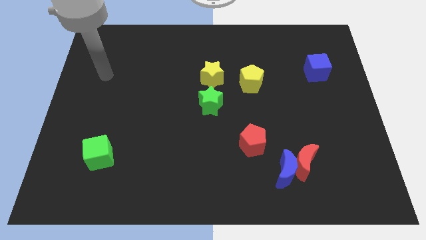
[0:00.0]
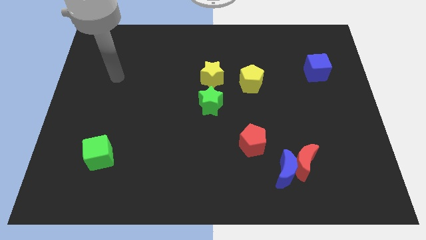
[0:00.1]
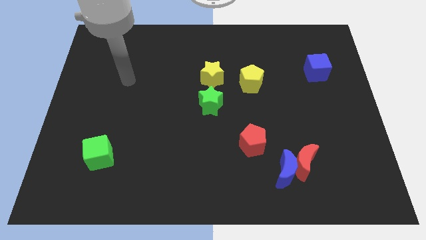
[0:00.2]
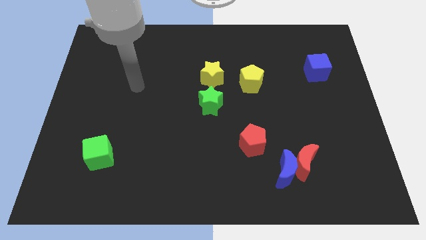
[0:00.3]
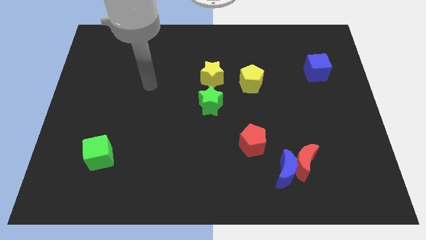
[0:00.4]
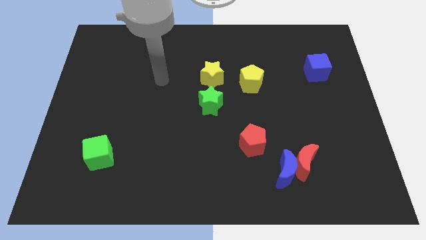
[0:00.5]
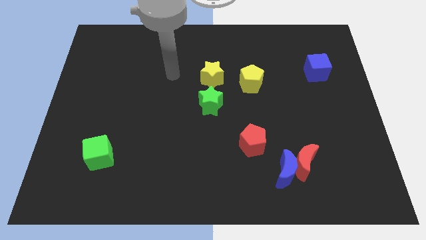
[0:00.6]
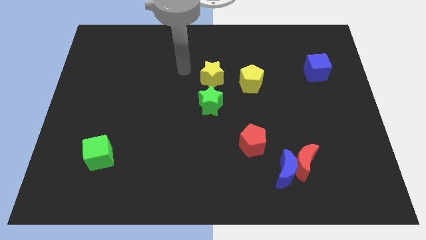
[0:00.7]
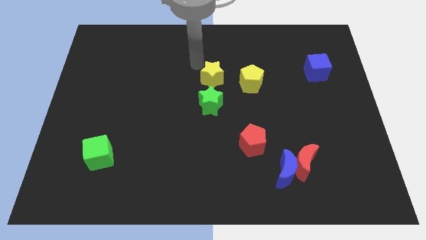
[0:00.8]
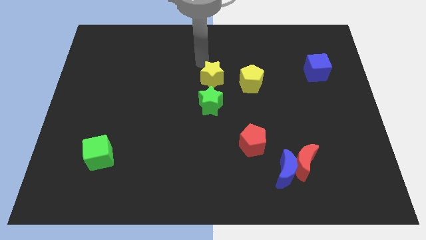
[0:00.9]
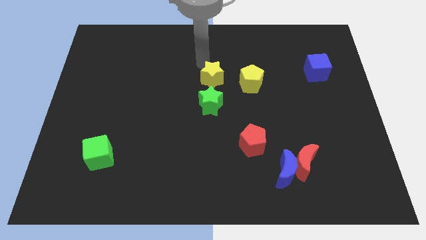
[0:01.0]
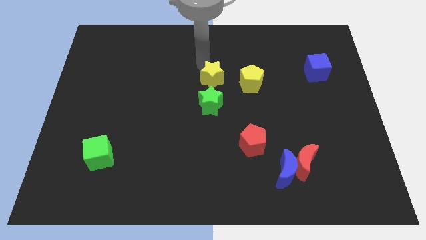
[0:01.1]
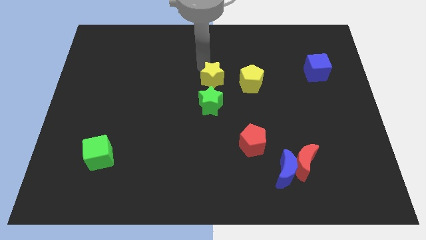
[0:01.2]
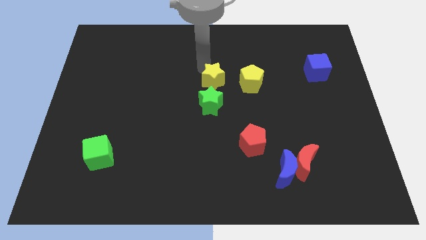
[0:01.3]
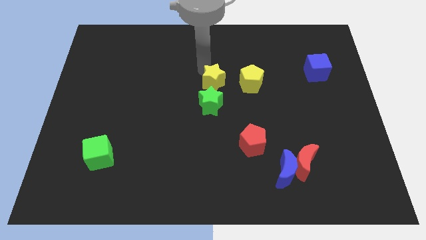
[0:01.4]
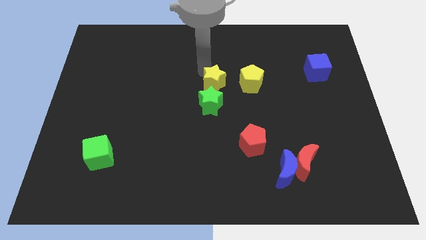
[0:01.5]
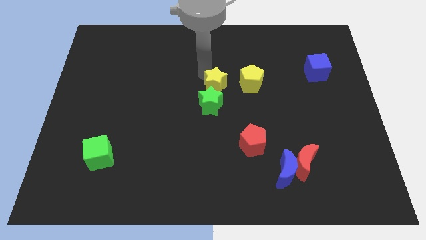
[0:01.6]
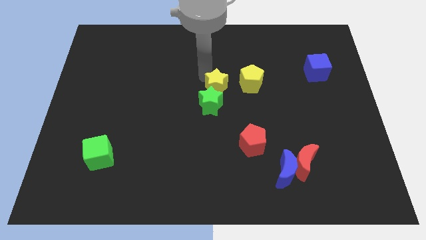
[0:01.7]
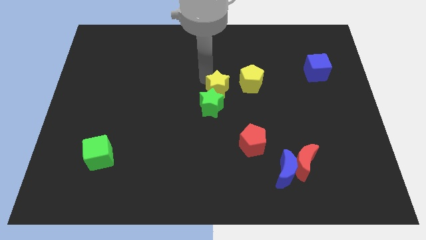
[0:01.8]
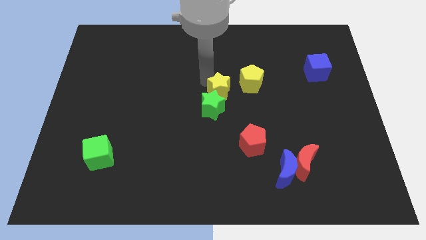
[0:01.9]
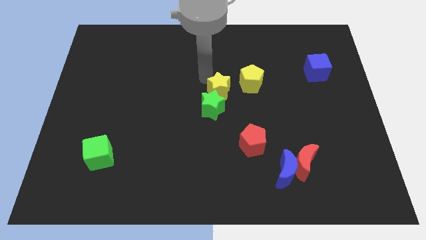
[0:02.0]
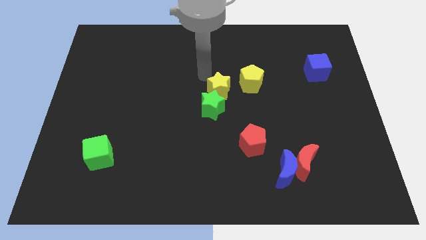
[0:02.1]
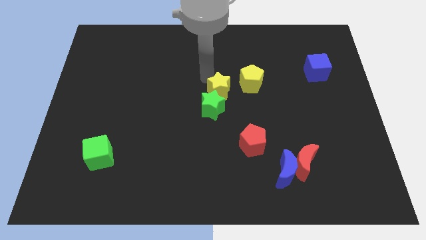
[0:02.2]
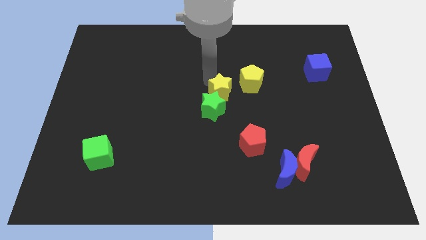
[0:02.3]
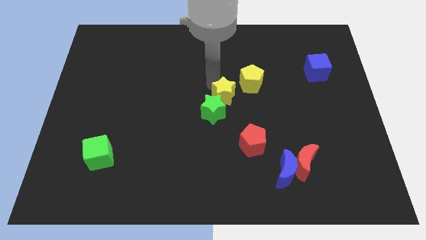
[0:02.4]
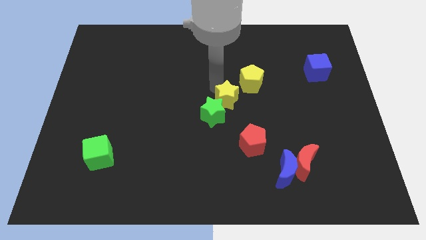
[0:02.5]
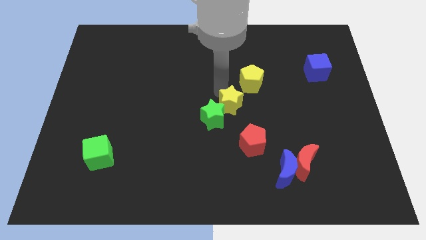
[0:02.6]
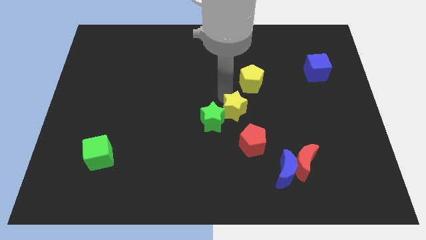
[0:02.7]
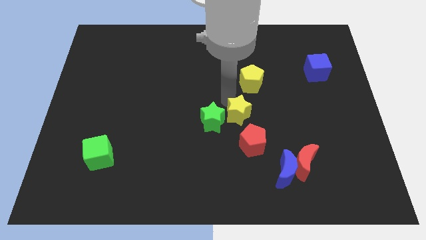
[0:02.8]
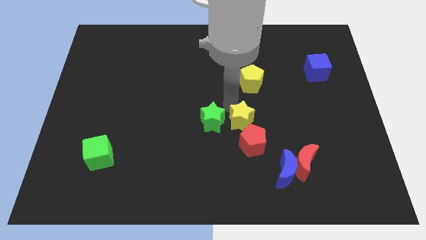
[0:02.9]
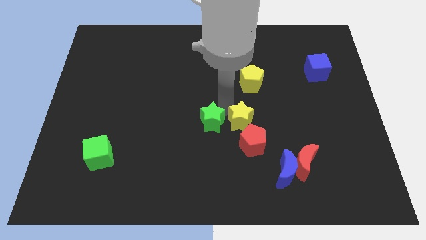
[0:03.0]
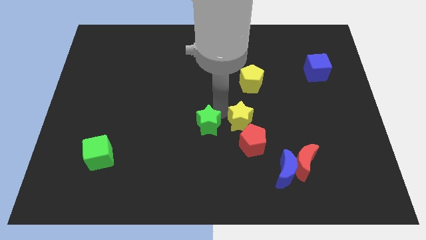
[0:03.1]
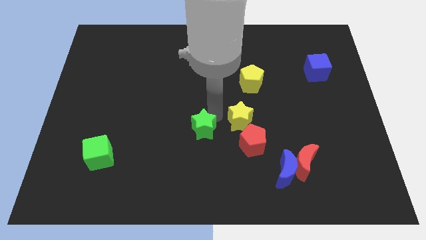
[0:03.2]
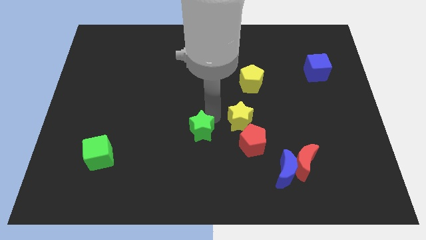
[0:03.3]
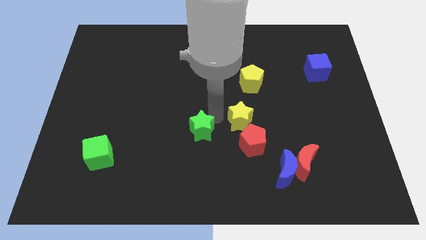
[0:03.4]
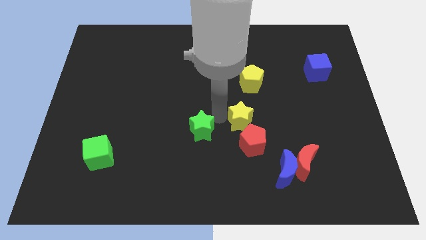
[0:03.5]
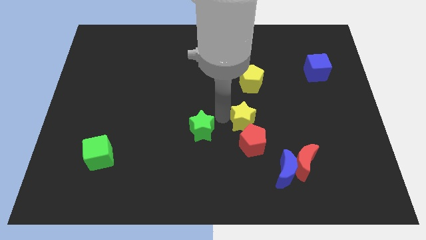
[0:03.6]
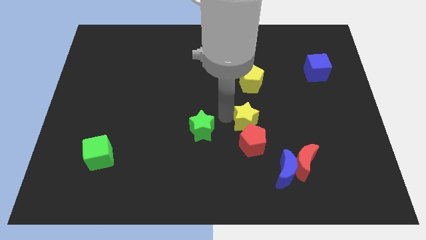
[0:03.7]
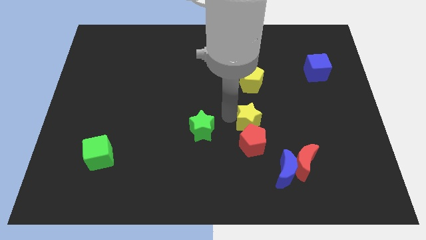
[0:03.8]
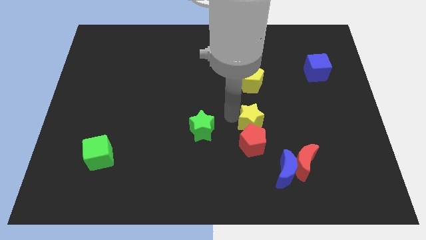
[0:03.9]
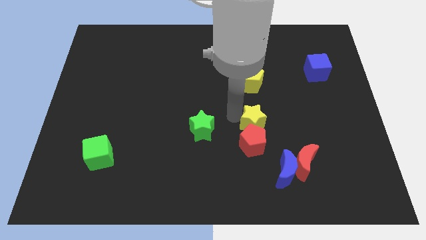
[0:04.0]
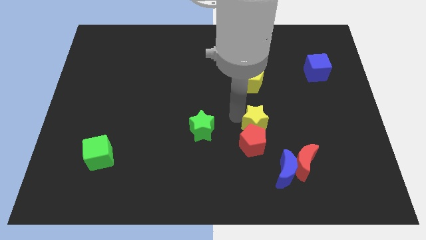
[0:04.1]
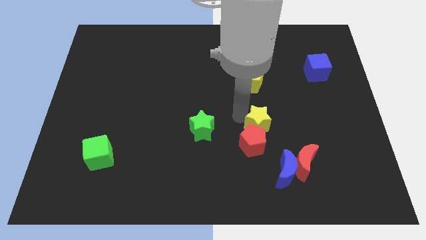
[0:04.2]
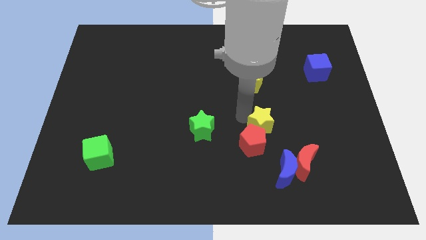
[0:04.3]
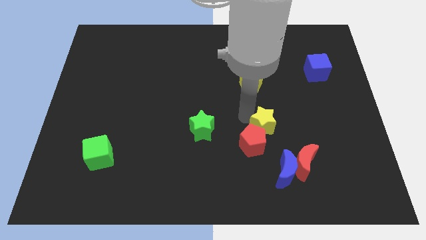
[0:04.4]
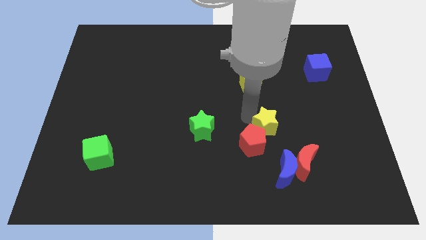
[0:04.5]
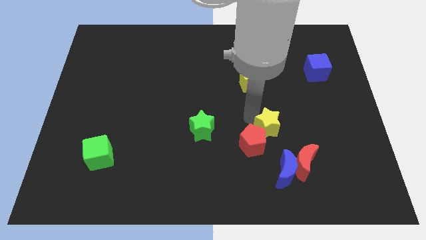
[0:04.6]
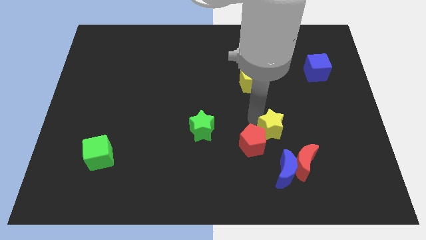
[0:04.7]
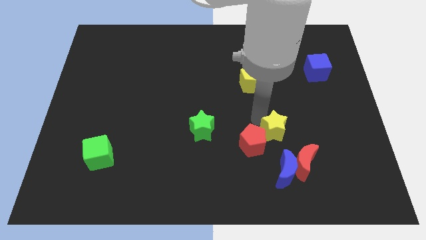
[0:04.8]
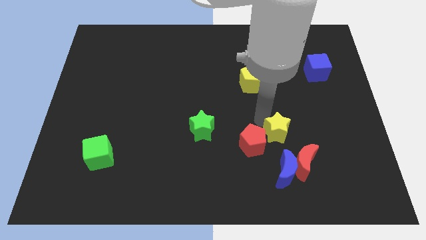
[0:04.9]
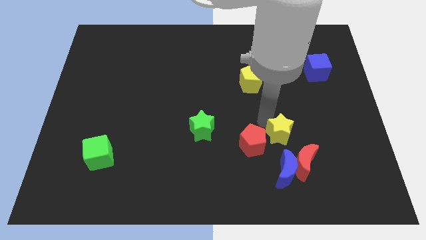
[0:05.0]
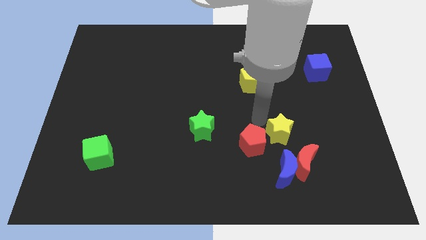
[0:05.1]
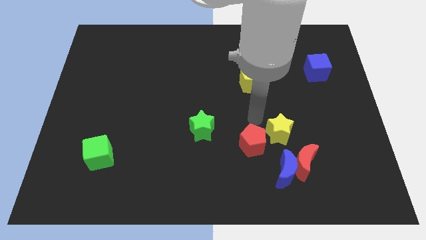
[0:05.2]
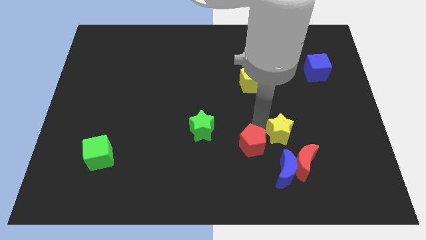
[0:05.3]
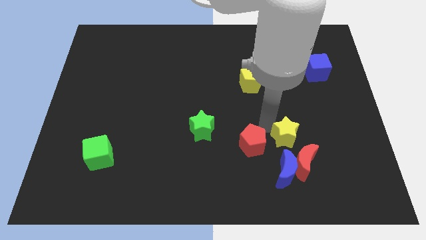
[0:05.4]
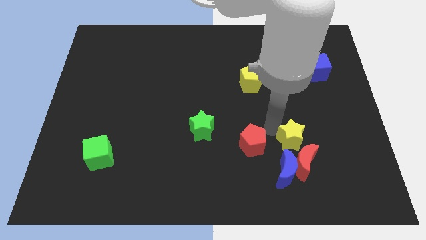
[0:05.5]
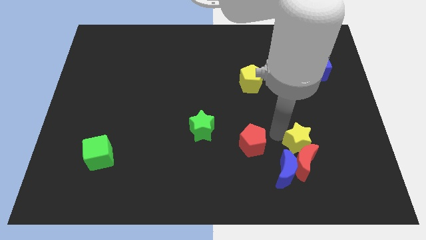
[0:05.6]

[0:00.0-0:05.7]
slide the yellow star diagonally up and to the right of the red moon

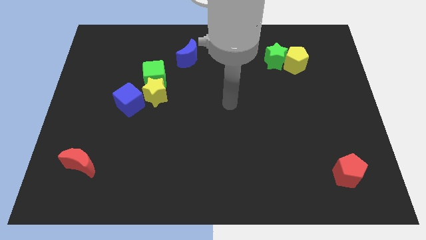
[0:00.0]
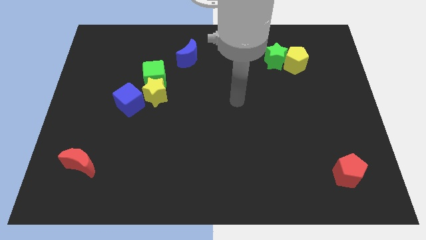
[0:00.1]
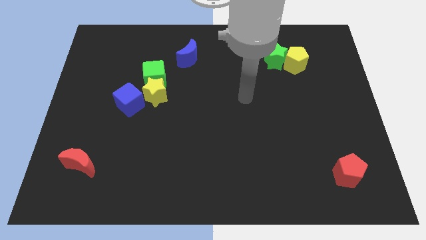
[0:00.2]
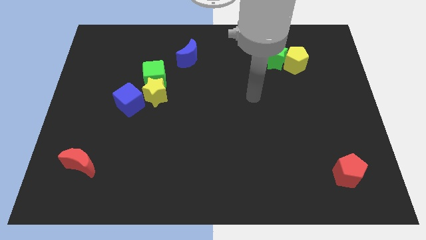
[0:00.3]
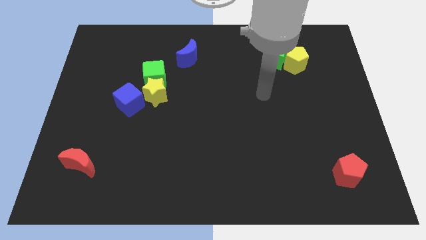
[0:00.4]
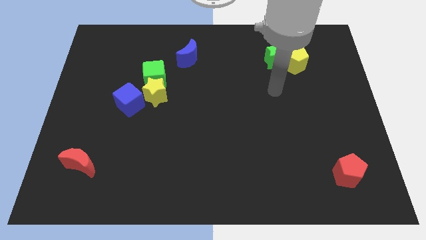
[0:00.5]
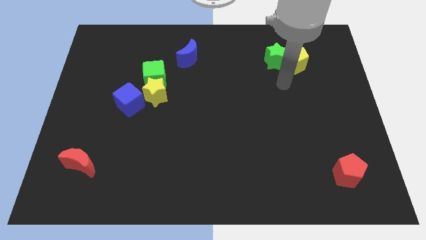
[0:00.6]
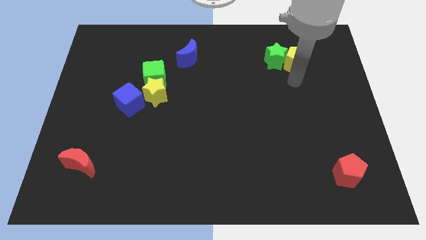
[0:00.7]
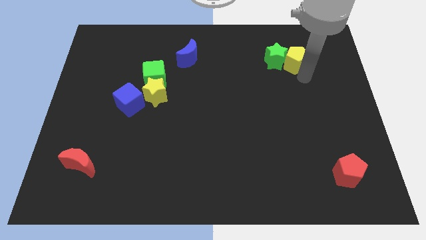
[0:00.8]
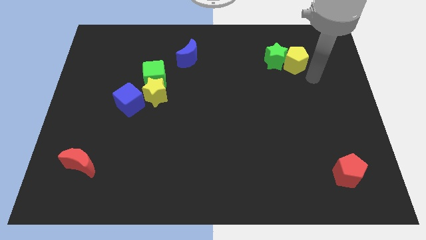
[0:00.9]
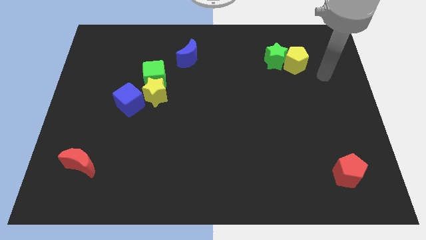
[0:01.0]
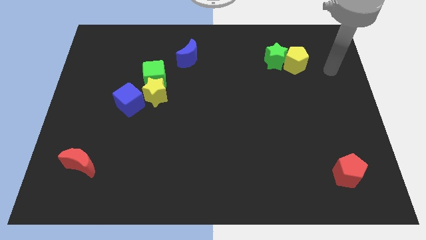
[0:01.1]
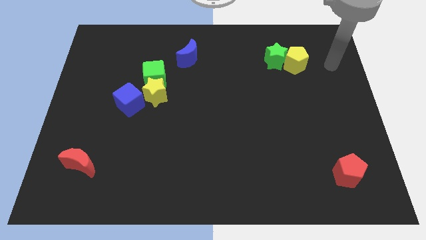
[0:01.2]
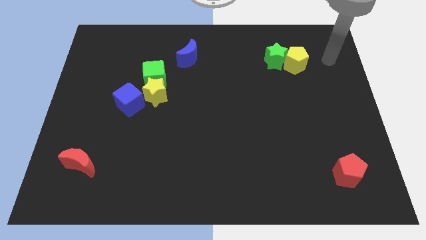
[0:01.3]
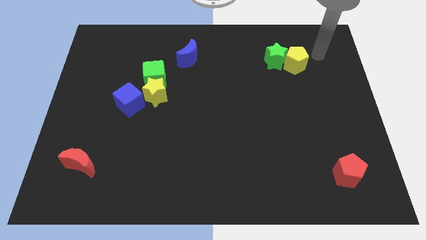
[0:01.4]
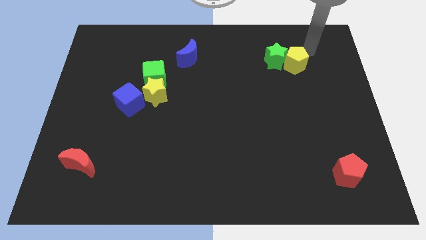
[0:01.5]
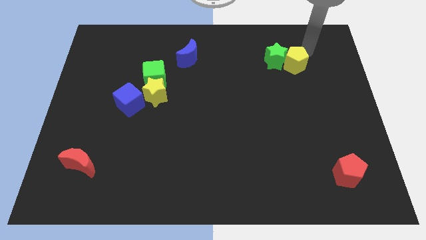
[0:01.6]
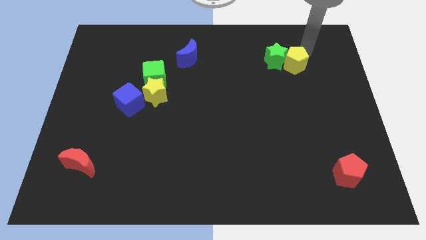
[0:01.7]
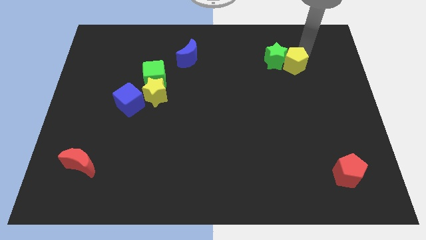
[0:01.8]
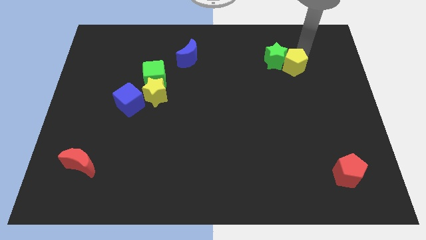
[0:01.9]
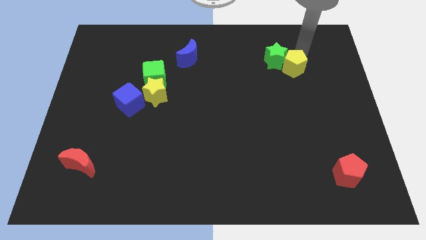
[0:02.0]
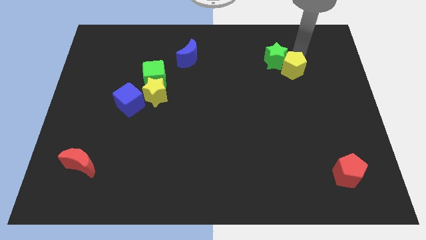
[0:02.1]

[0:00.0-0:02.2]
slide the yellow pentagon to the bottom of the green star
